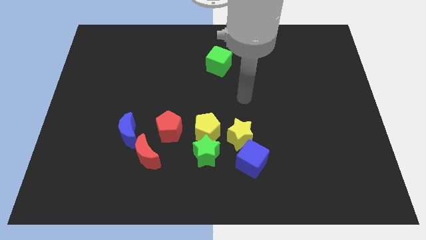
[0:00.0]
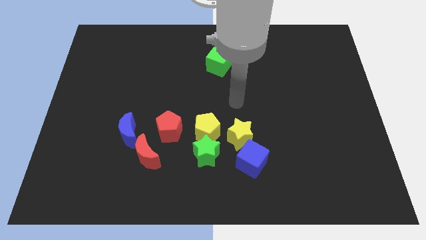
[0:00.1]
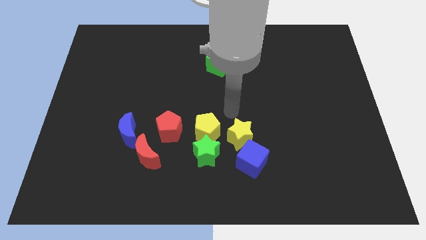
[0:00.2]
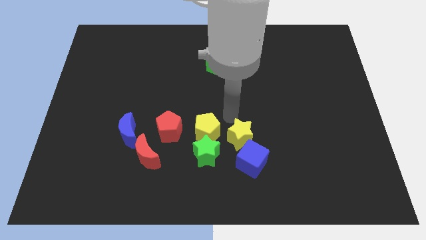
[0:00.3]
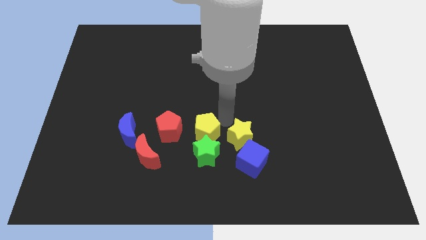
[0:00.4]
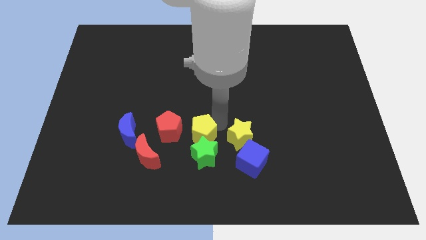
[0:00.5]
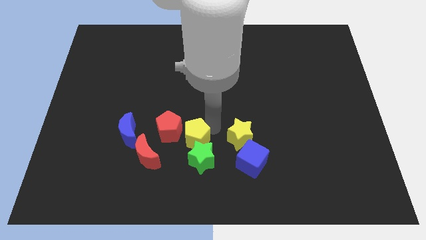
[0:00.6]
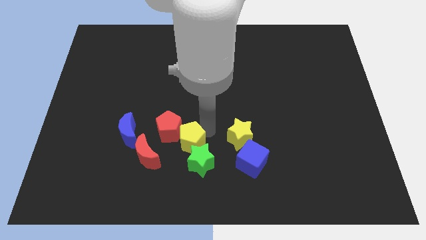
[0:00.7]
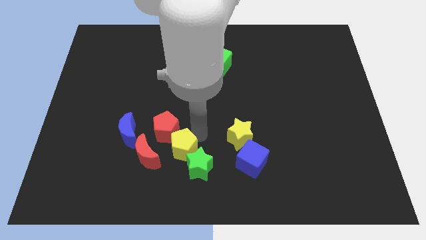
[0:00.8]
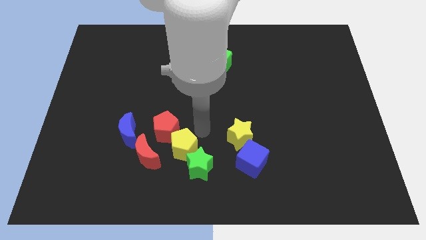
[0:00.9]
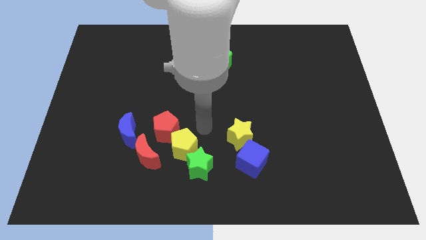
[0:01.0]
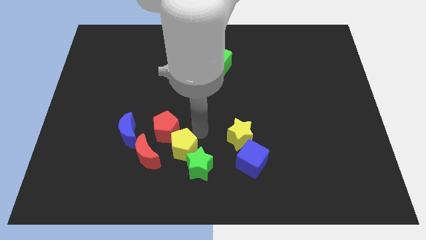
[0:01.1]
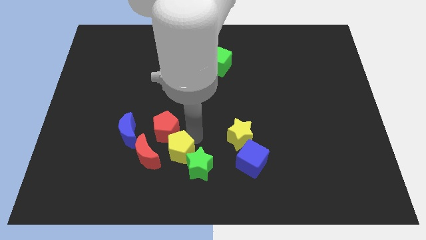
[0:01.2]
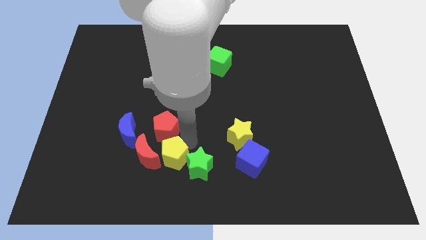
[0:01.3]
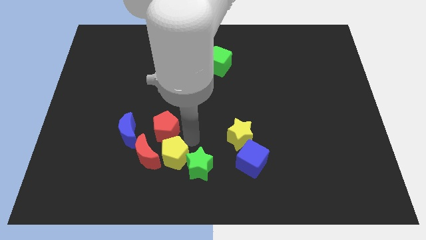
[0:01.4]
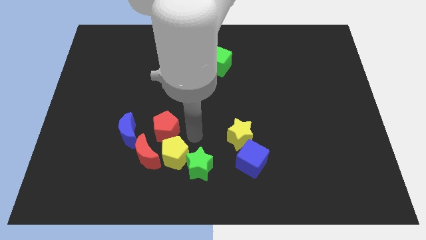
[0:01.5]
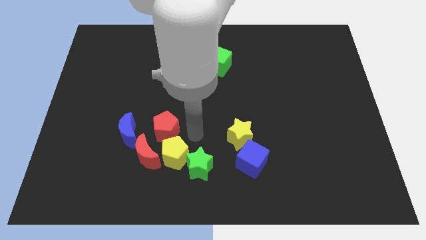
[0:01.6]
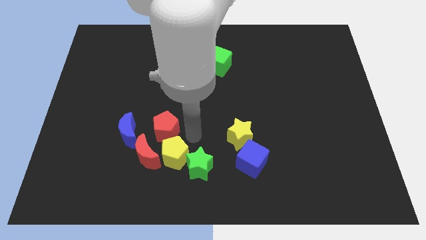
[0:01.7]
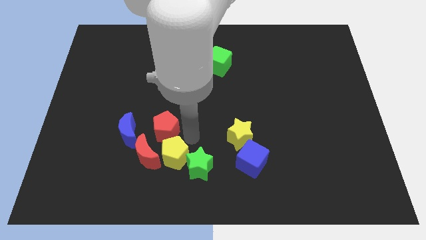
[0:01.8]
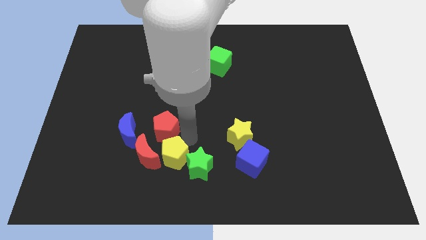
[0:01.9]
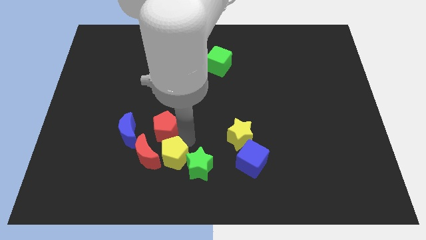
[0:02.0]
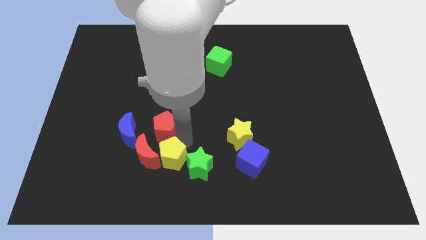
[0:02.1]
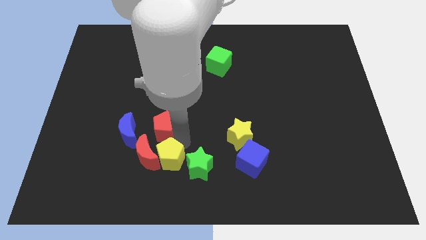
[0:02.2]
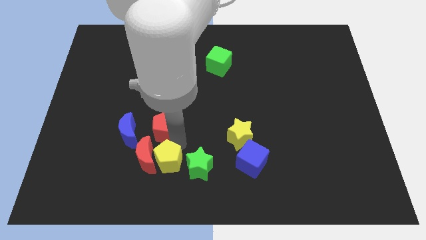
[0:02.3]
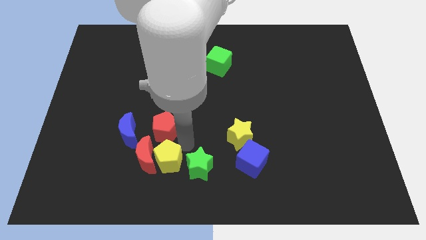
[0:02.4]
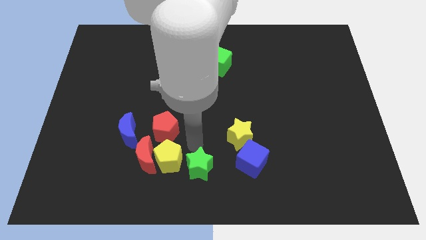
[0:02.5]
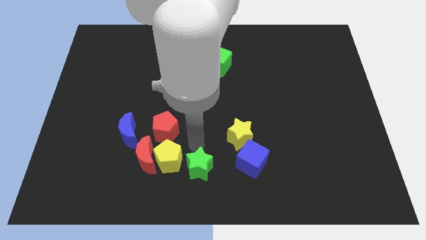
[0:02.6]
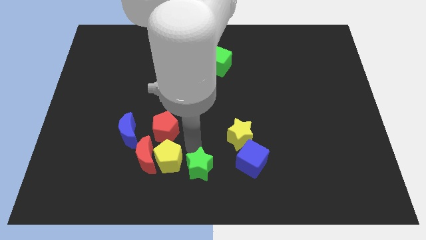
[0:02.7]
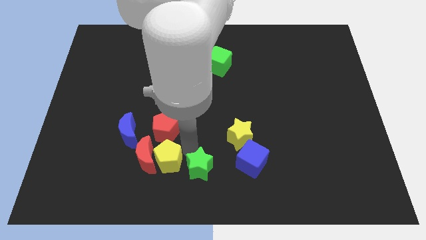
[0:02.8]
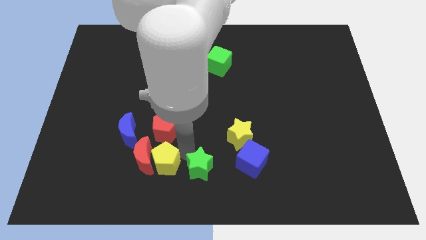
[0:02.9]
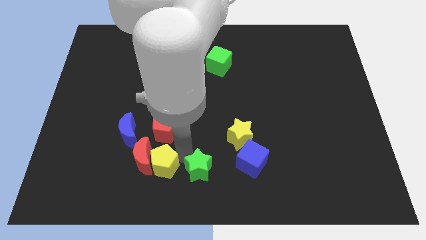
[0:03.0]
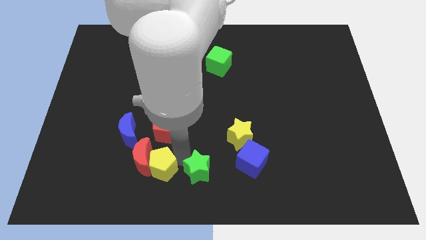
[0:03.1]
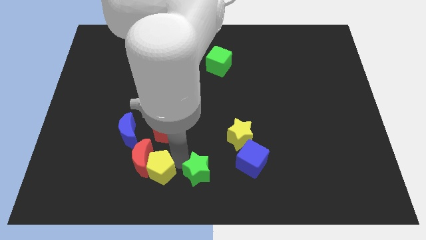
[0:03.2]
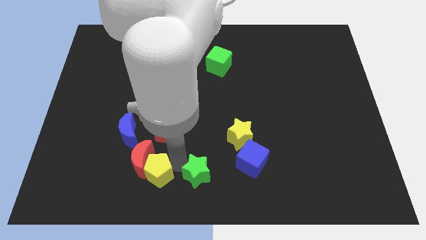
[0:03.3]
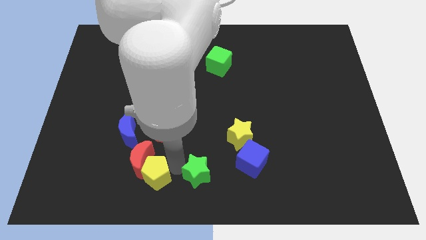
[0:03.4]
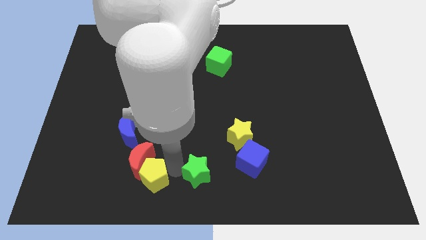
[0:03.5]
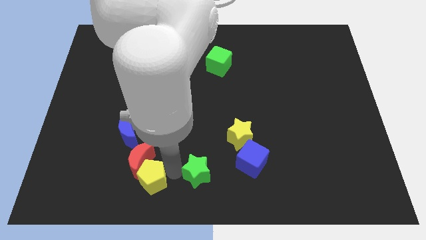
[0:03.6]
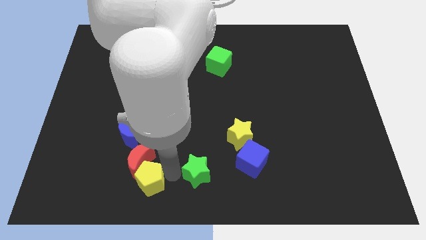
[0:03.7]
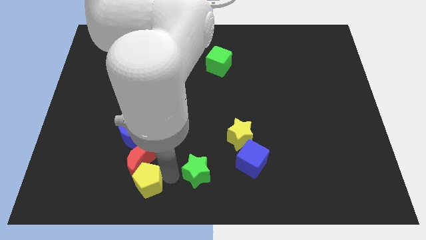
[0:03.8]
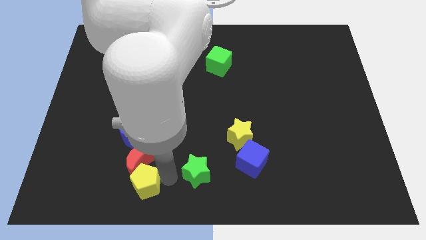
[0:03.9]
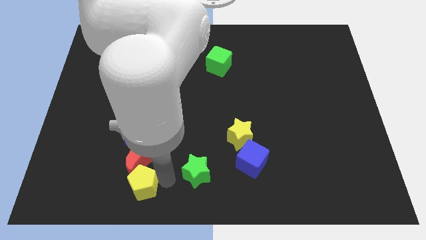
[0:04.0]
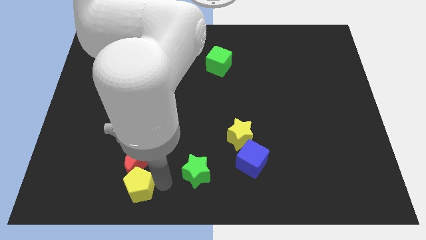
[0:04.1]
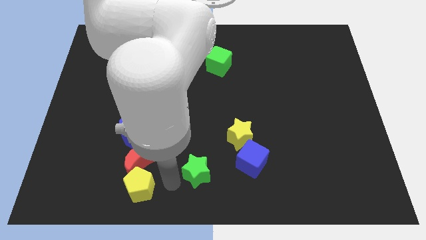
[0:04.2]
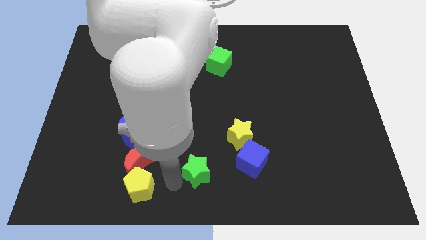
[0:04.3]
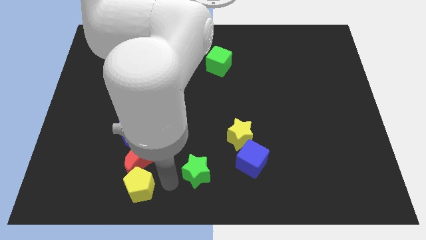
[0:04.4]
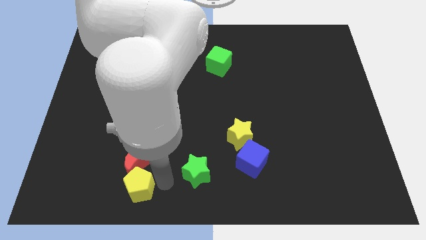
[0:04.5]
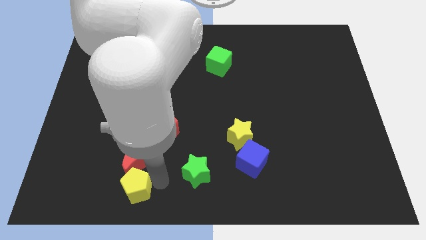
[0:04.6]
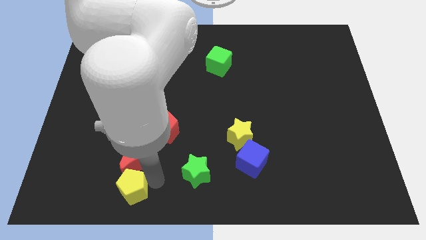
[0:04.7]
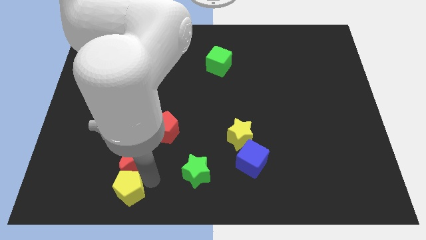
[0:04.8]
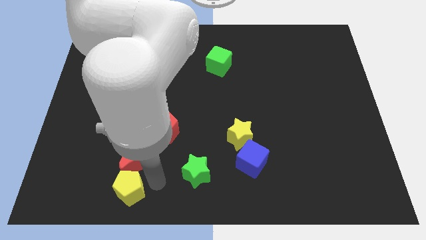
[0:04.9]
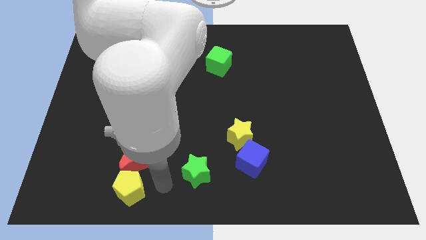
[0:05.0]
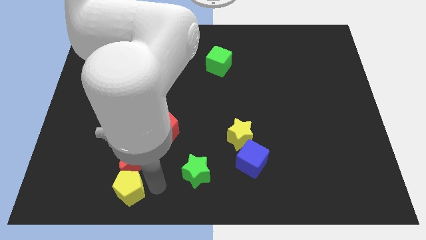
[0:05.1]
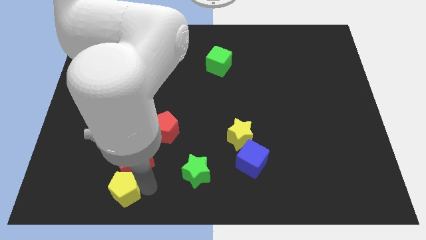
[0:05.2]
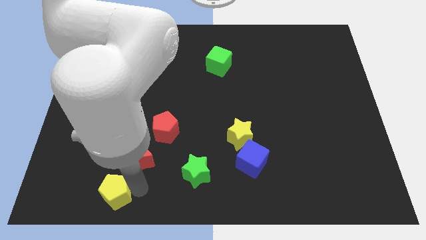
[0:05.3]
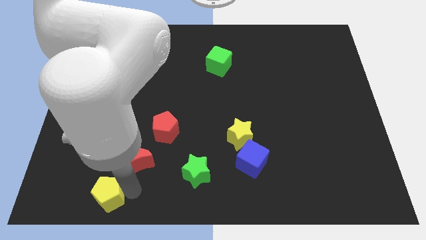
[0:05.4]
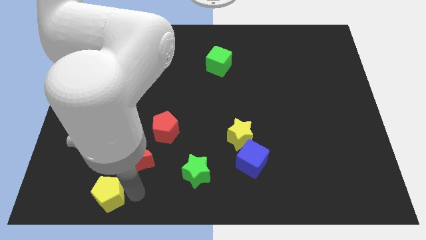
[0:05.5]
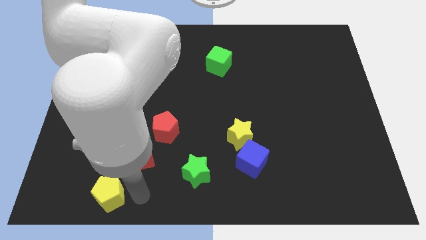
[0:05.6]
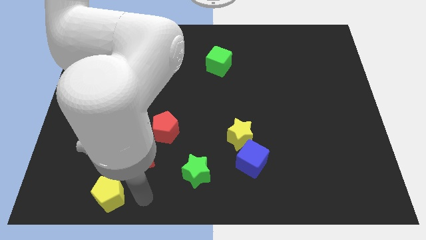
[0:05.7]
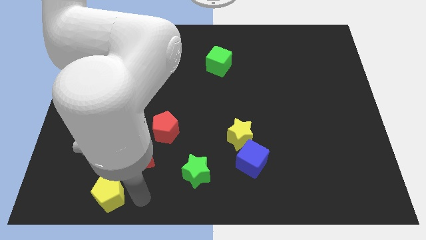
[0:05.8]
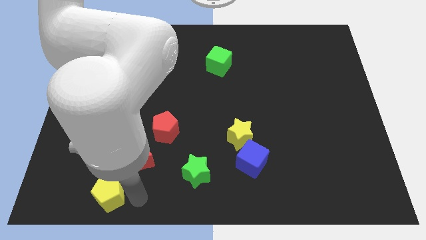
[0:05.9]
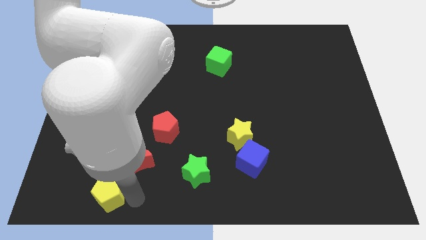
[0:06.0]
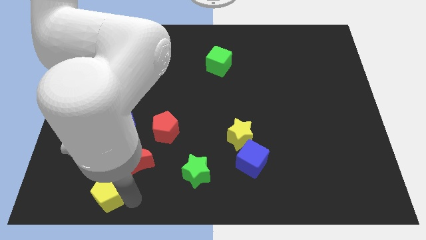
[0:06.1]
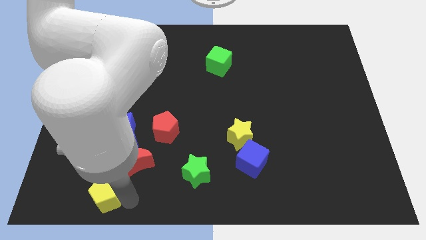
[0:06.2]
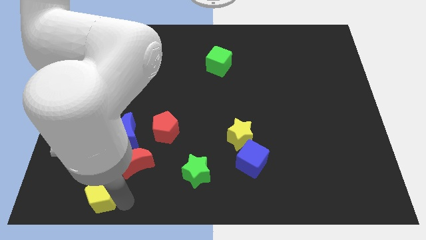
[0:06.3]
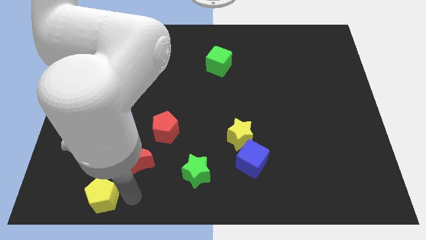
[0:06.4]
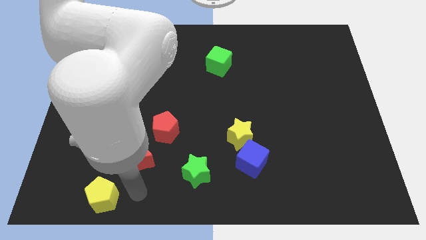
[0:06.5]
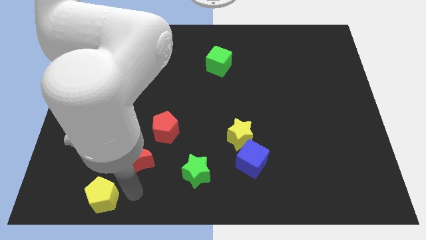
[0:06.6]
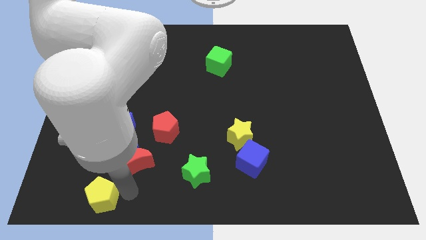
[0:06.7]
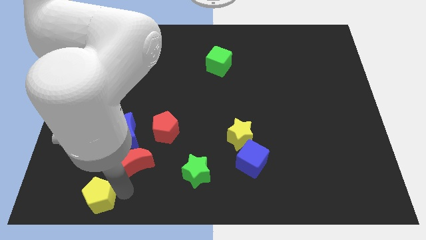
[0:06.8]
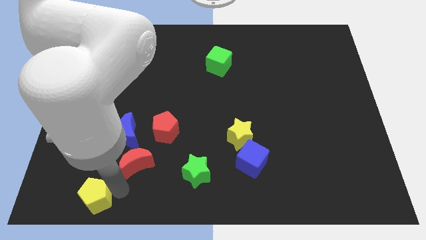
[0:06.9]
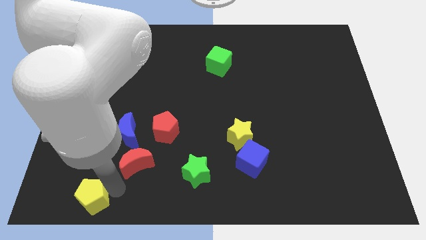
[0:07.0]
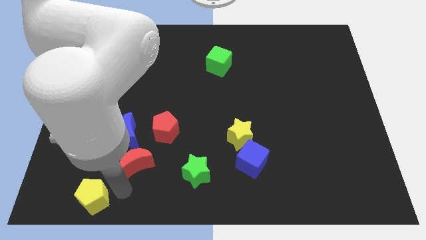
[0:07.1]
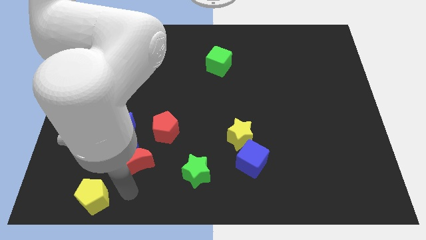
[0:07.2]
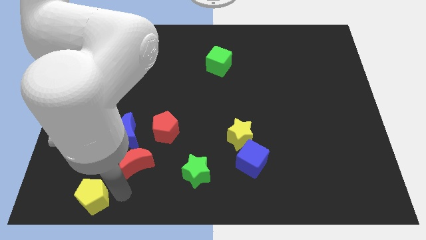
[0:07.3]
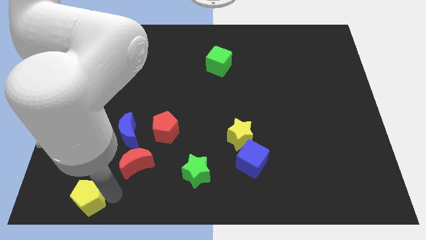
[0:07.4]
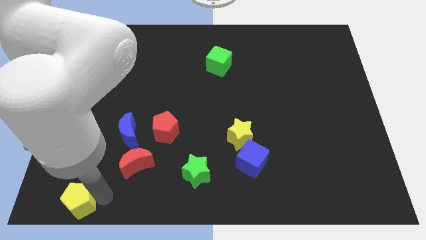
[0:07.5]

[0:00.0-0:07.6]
put the yellow pentagon to the bottom left
